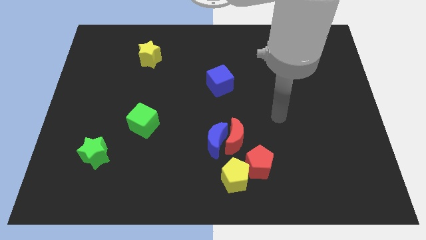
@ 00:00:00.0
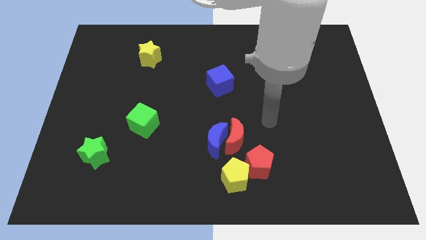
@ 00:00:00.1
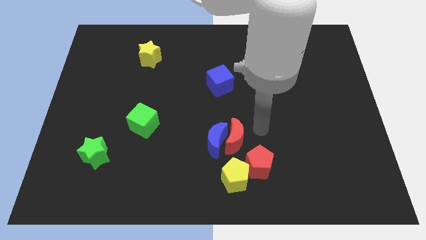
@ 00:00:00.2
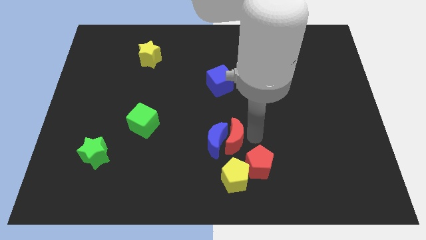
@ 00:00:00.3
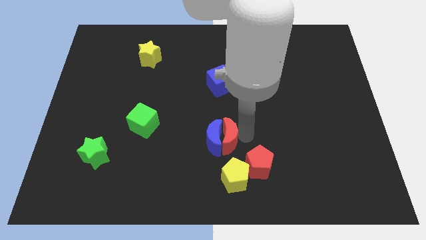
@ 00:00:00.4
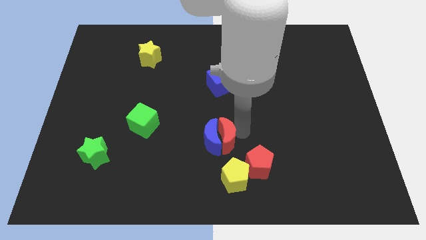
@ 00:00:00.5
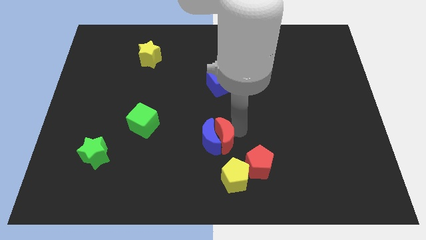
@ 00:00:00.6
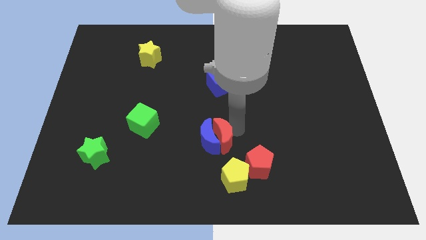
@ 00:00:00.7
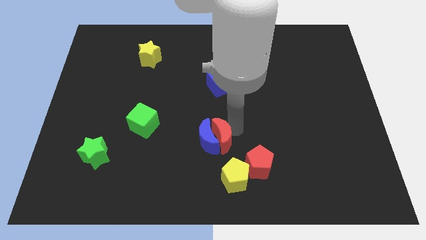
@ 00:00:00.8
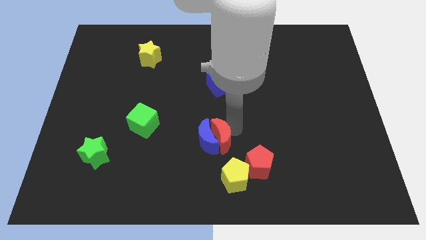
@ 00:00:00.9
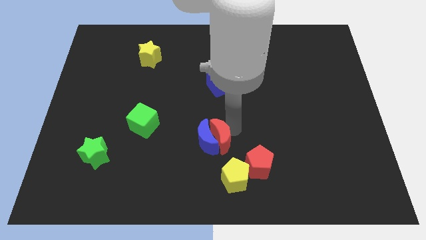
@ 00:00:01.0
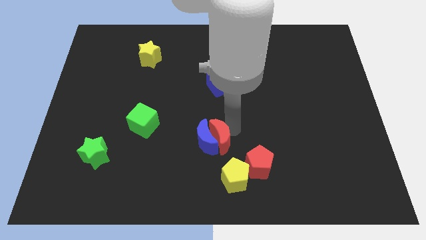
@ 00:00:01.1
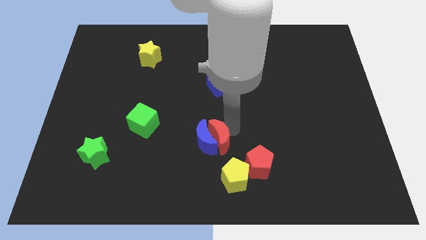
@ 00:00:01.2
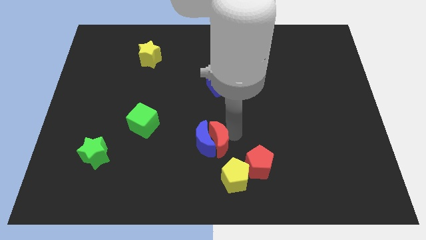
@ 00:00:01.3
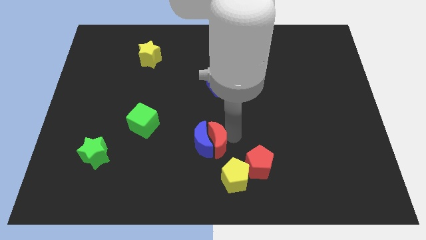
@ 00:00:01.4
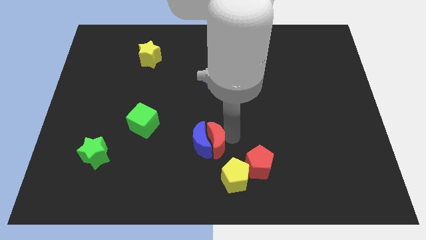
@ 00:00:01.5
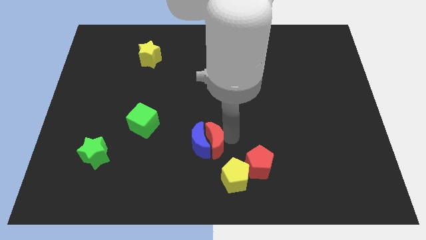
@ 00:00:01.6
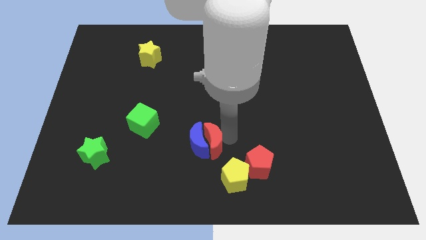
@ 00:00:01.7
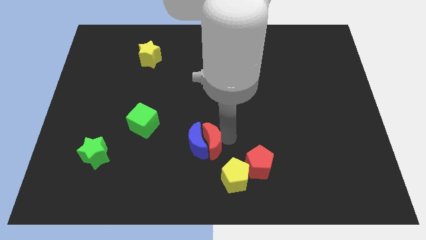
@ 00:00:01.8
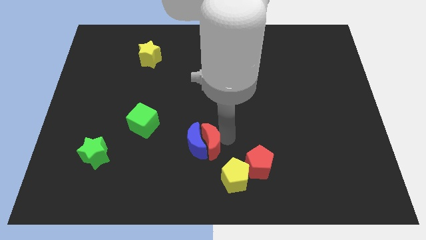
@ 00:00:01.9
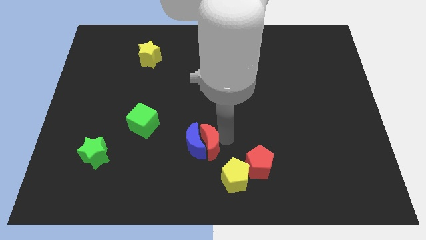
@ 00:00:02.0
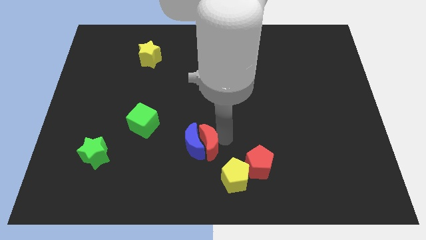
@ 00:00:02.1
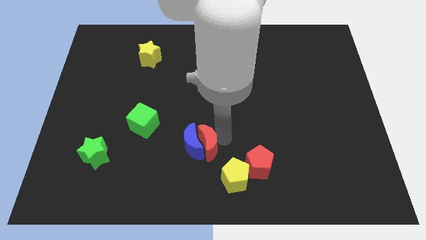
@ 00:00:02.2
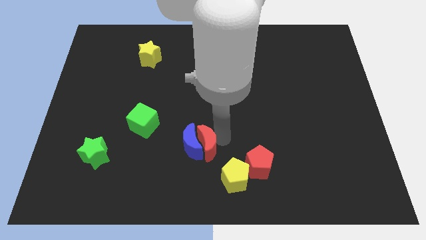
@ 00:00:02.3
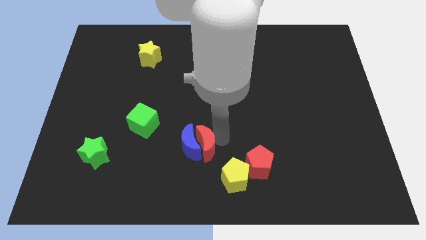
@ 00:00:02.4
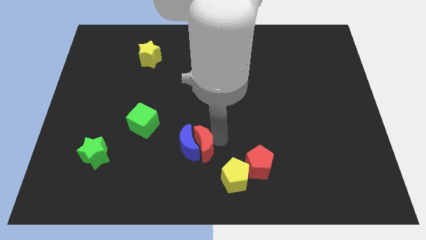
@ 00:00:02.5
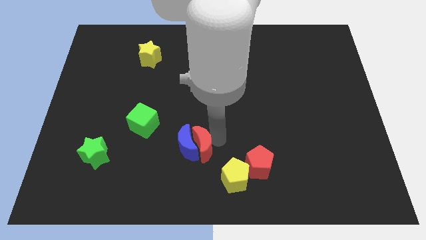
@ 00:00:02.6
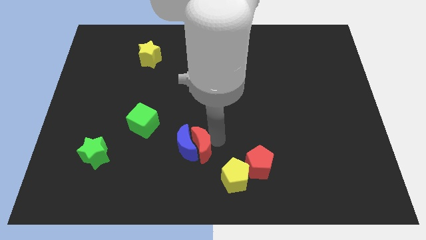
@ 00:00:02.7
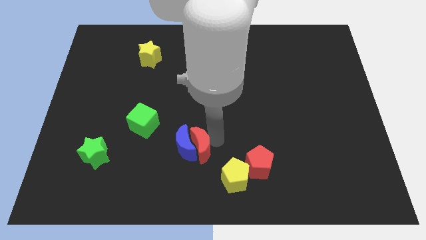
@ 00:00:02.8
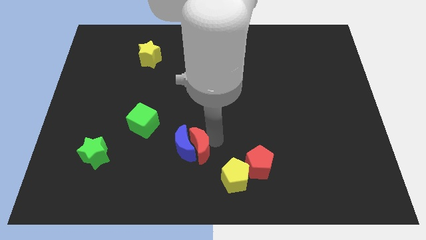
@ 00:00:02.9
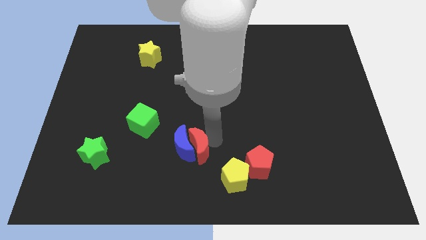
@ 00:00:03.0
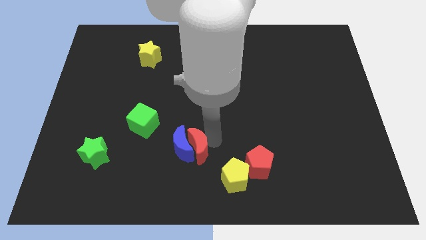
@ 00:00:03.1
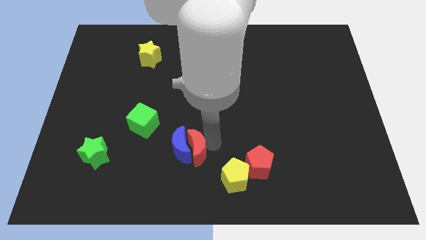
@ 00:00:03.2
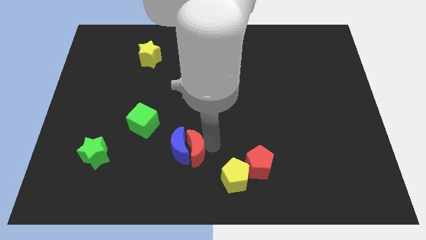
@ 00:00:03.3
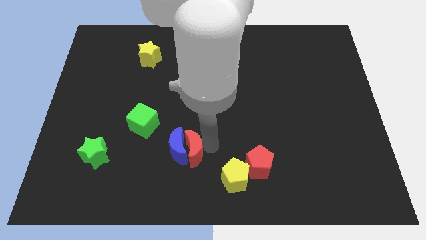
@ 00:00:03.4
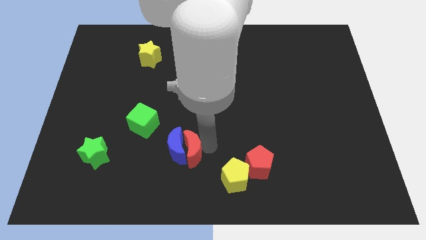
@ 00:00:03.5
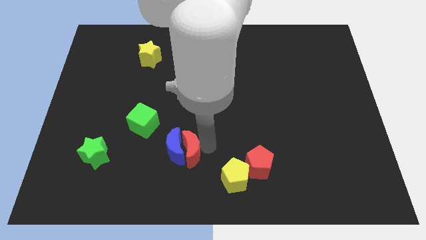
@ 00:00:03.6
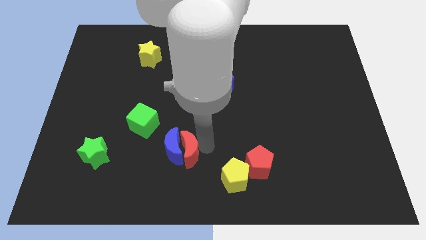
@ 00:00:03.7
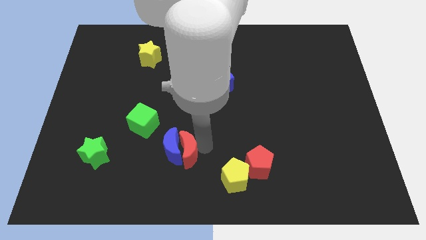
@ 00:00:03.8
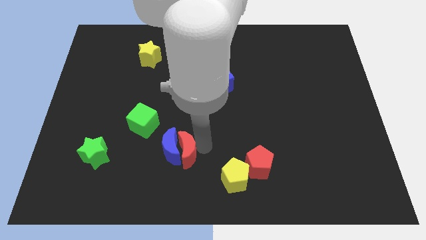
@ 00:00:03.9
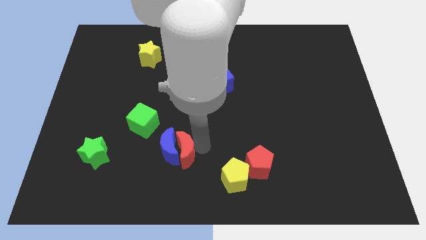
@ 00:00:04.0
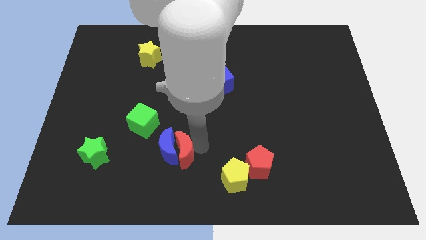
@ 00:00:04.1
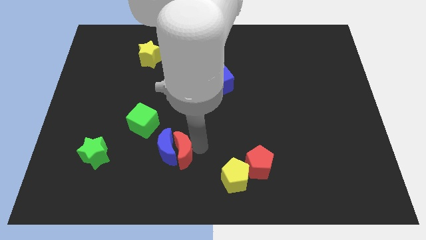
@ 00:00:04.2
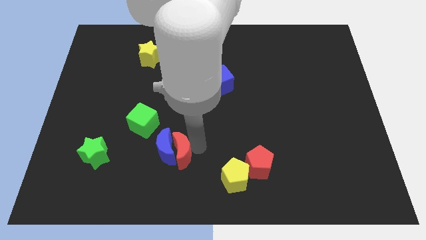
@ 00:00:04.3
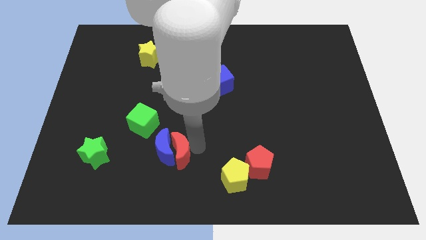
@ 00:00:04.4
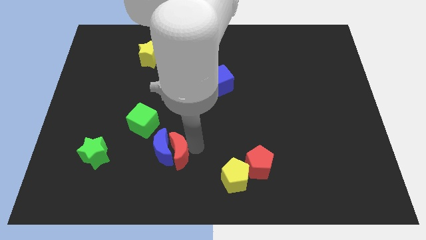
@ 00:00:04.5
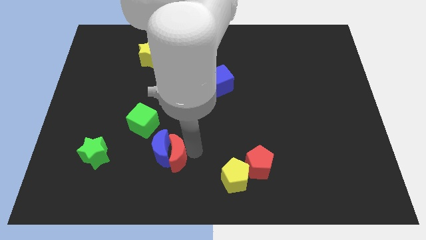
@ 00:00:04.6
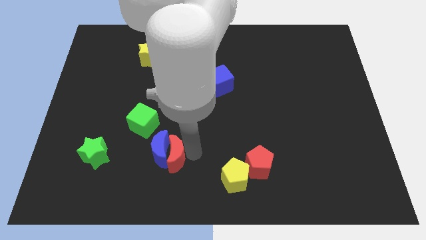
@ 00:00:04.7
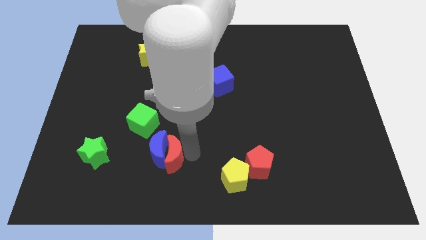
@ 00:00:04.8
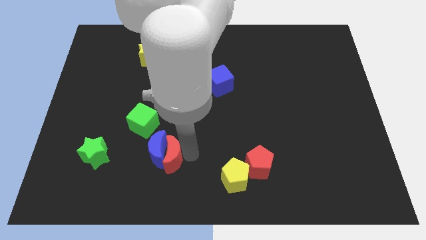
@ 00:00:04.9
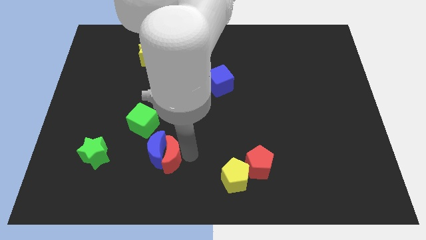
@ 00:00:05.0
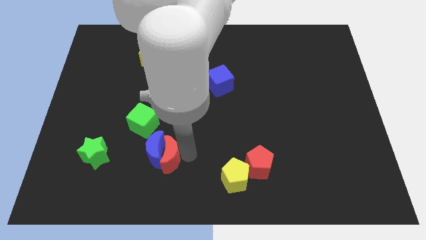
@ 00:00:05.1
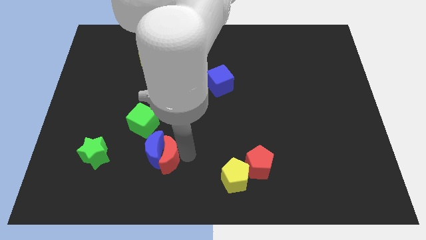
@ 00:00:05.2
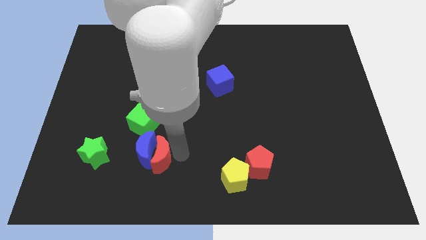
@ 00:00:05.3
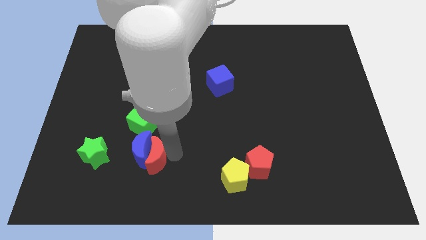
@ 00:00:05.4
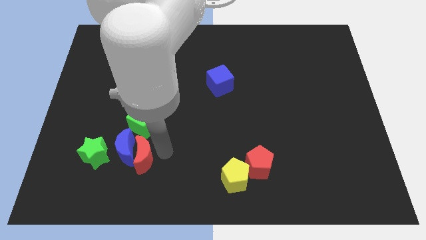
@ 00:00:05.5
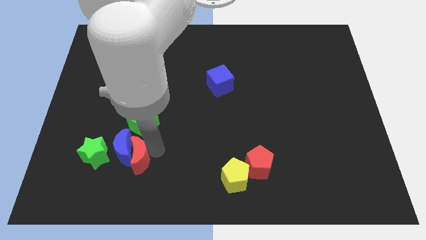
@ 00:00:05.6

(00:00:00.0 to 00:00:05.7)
slide the blue moon close to the green star

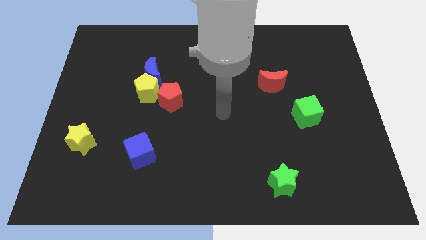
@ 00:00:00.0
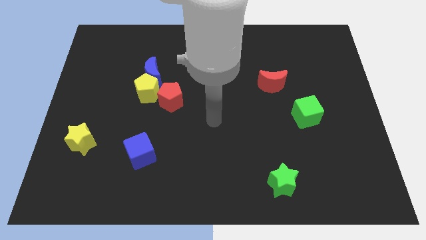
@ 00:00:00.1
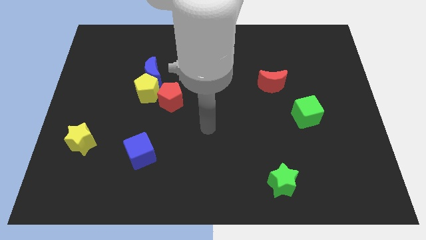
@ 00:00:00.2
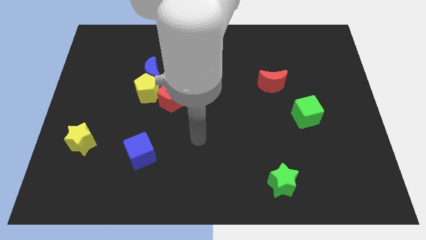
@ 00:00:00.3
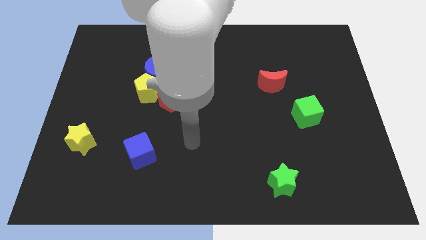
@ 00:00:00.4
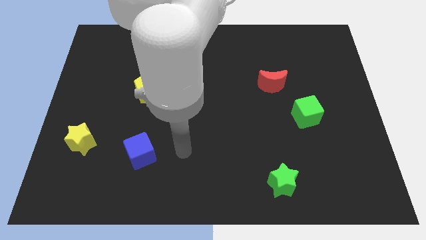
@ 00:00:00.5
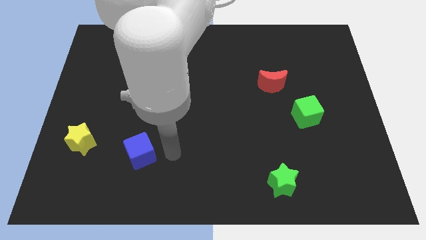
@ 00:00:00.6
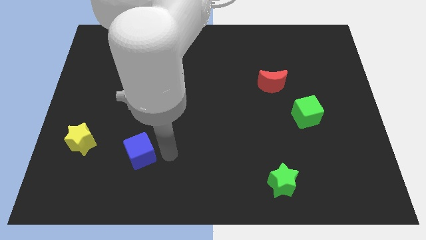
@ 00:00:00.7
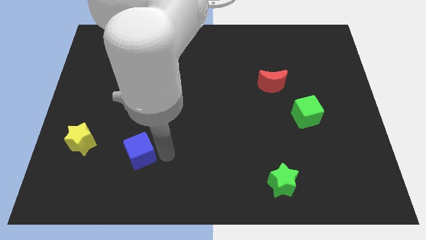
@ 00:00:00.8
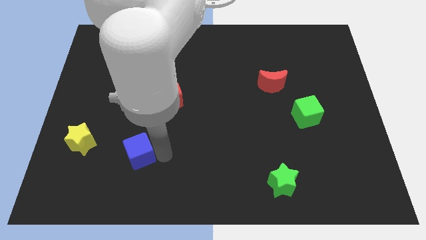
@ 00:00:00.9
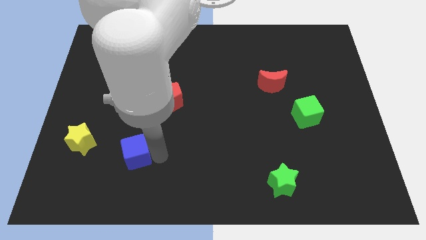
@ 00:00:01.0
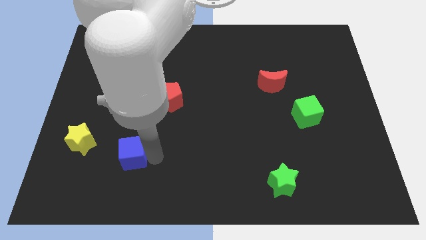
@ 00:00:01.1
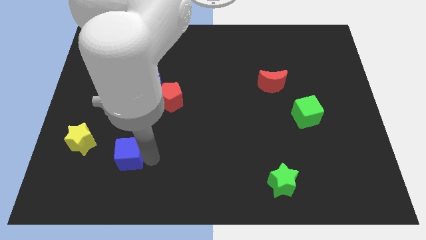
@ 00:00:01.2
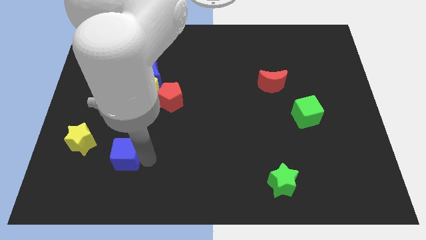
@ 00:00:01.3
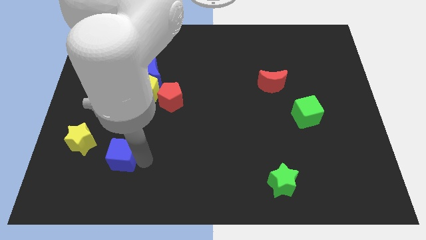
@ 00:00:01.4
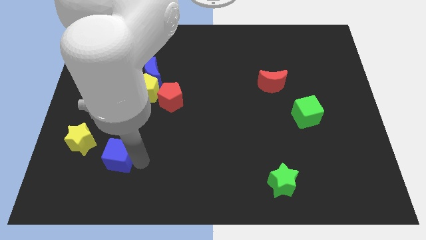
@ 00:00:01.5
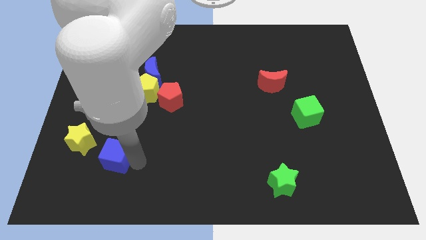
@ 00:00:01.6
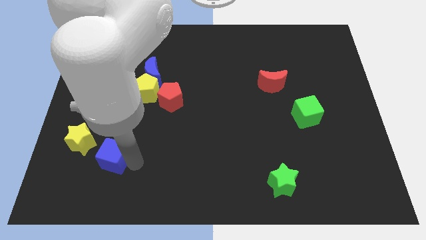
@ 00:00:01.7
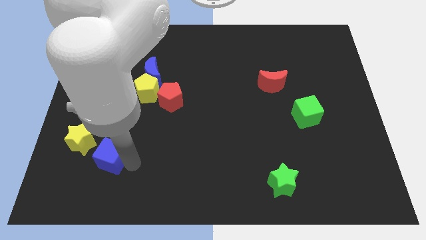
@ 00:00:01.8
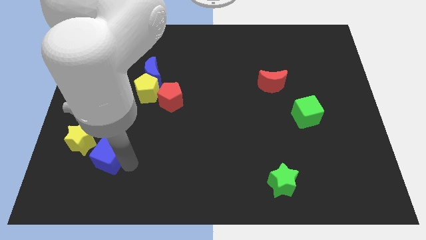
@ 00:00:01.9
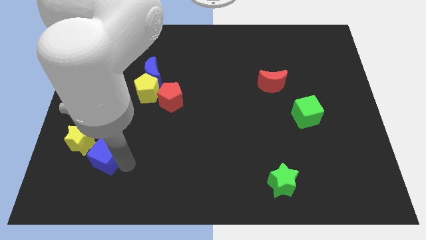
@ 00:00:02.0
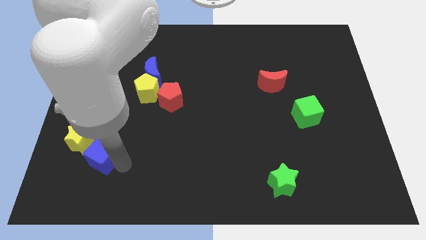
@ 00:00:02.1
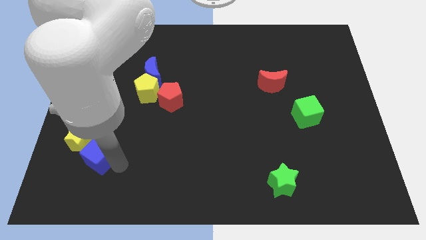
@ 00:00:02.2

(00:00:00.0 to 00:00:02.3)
move the blue cube next to the yellow star
